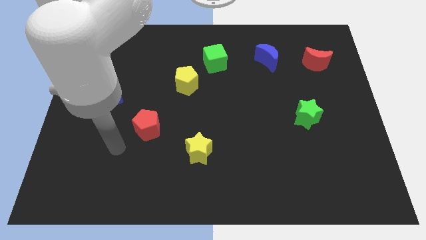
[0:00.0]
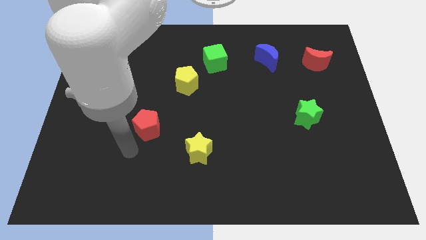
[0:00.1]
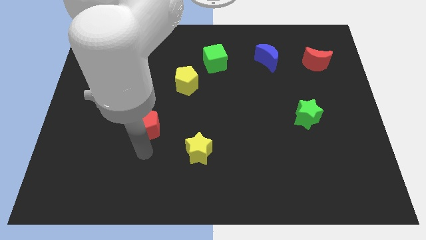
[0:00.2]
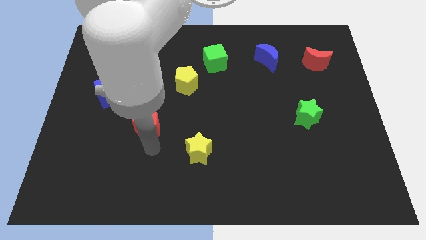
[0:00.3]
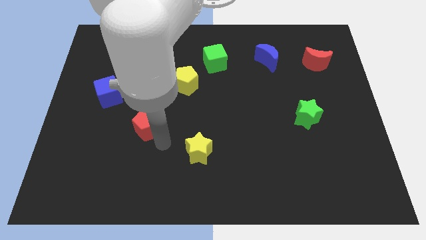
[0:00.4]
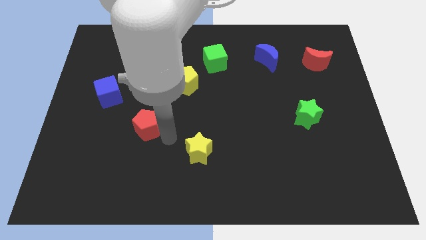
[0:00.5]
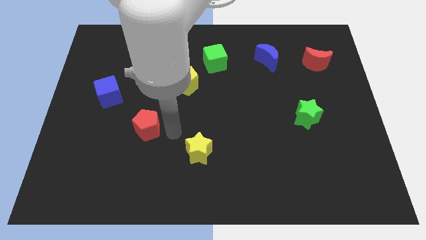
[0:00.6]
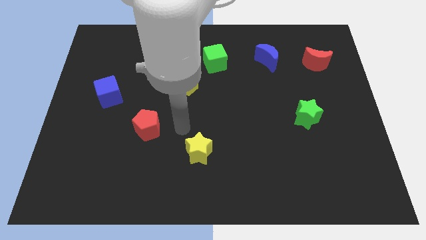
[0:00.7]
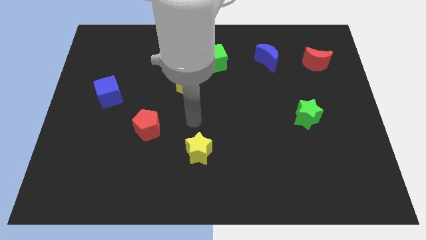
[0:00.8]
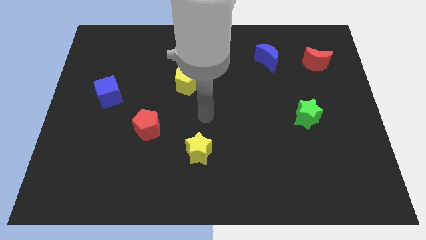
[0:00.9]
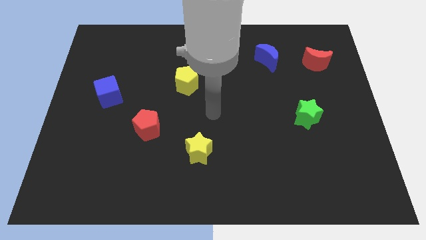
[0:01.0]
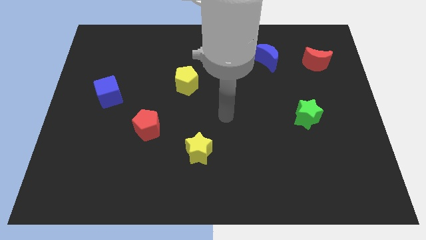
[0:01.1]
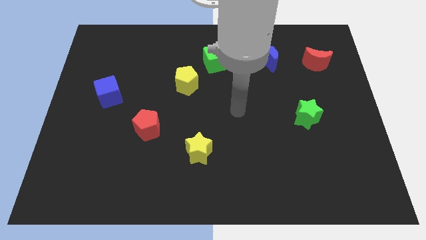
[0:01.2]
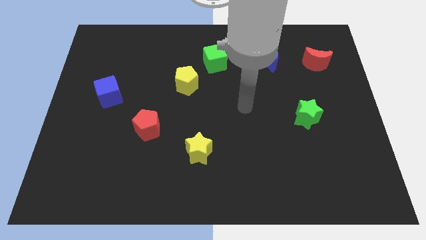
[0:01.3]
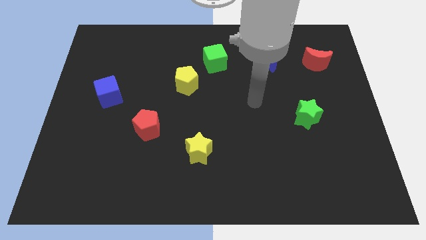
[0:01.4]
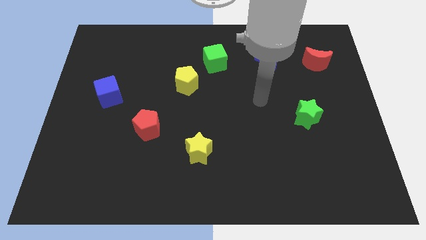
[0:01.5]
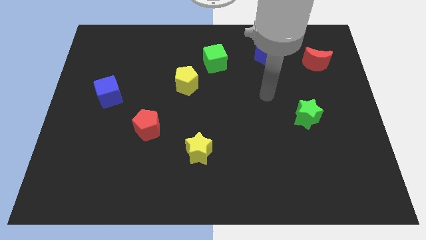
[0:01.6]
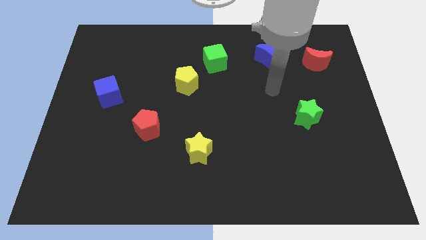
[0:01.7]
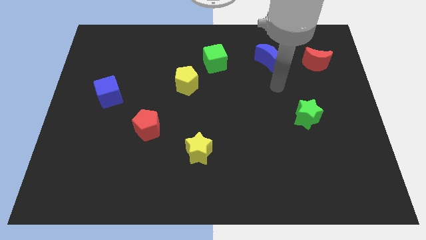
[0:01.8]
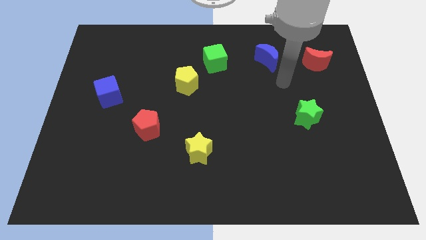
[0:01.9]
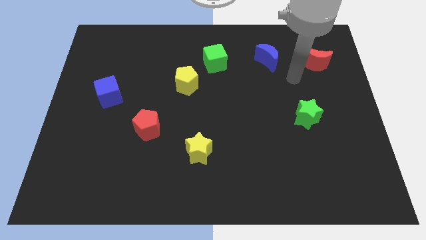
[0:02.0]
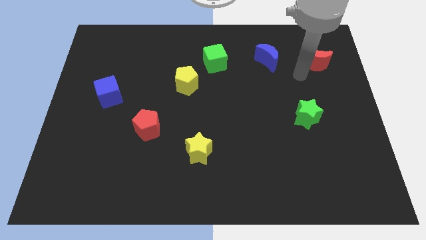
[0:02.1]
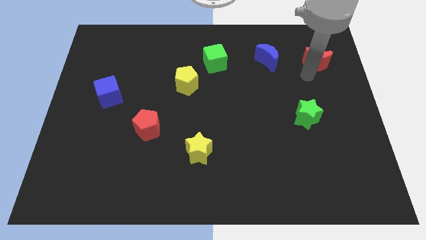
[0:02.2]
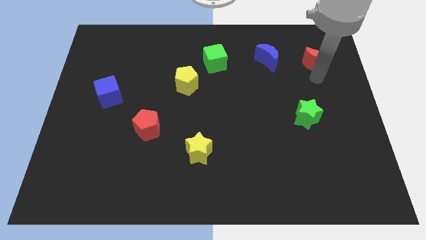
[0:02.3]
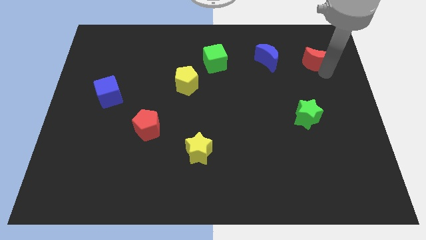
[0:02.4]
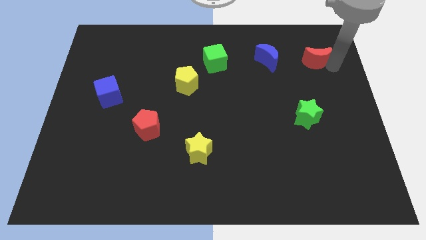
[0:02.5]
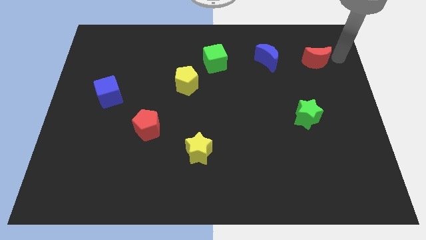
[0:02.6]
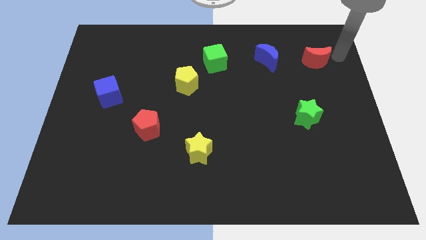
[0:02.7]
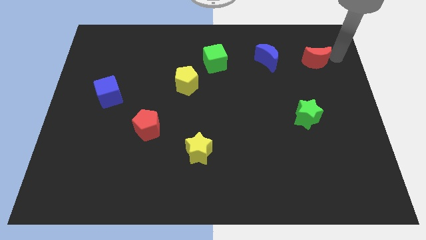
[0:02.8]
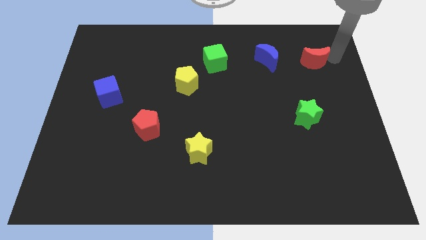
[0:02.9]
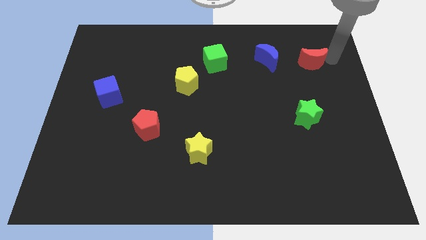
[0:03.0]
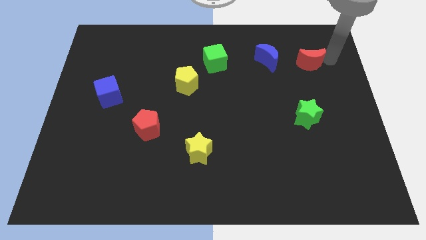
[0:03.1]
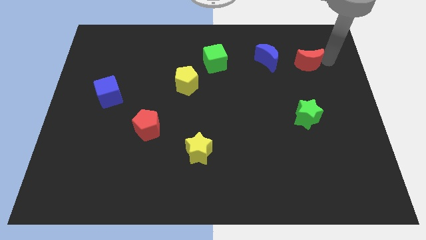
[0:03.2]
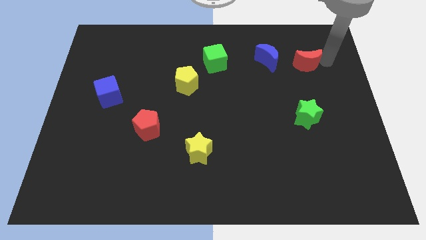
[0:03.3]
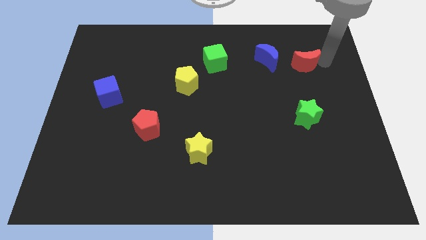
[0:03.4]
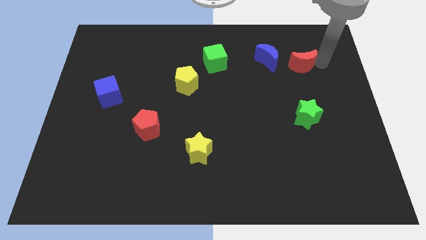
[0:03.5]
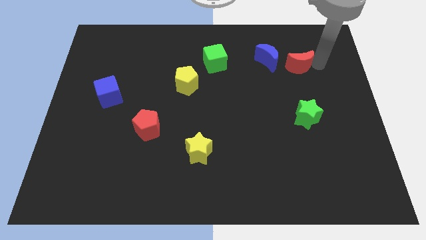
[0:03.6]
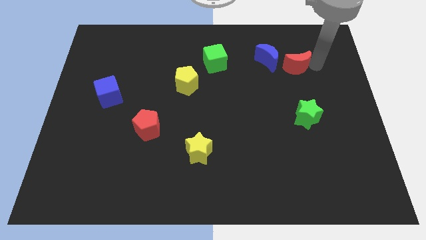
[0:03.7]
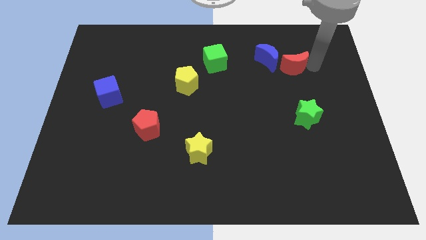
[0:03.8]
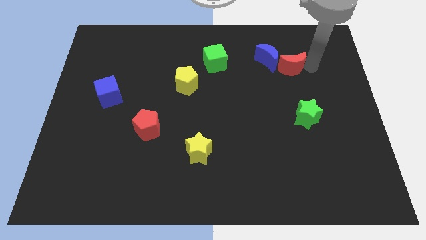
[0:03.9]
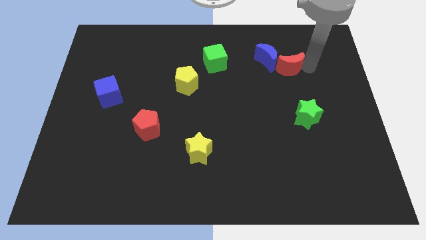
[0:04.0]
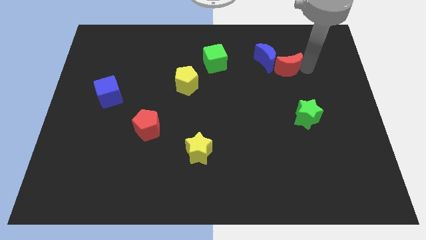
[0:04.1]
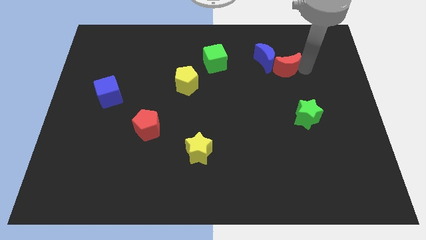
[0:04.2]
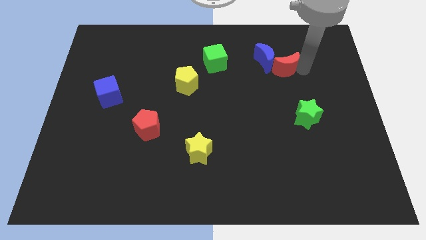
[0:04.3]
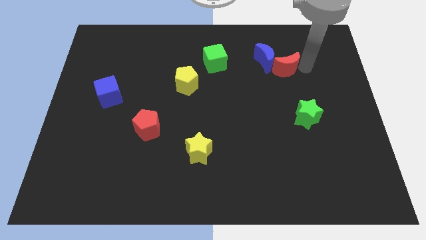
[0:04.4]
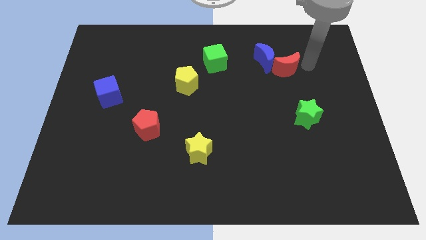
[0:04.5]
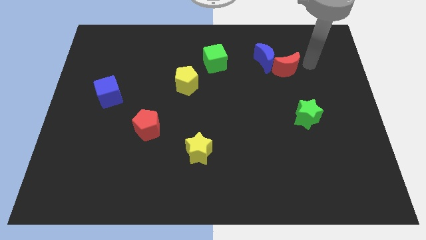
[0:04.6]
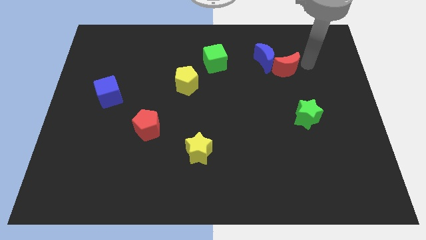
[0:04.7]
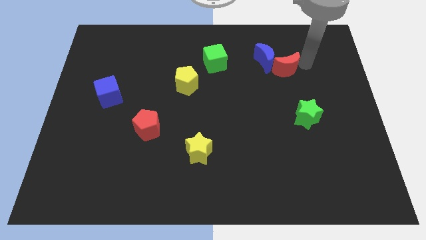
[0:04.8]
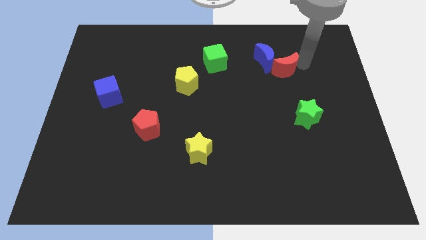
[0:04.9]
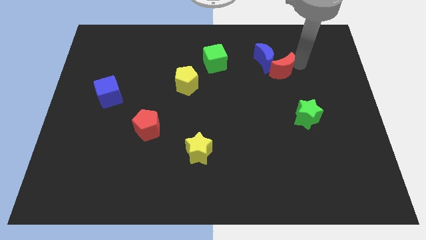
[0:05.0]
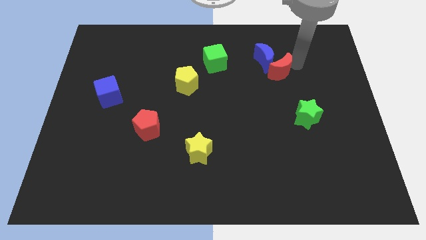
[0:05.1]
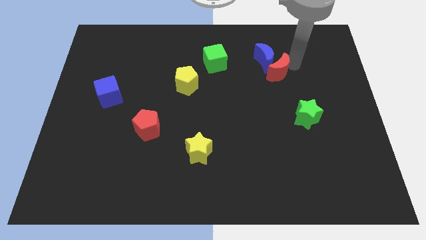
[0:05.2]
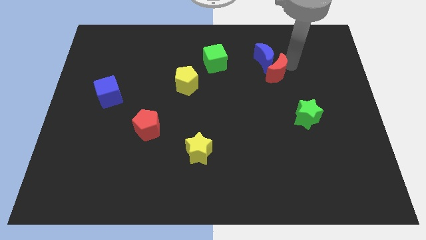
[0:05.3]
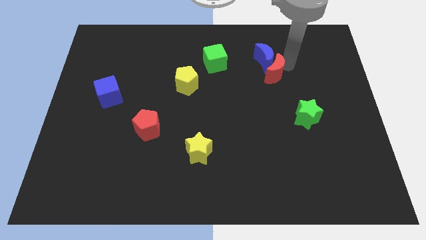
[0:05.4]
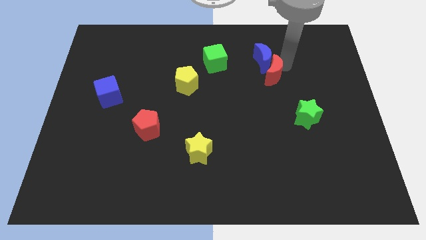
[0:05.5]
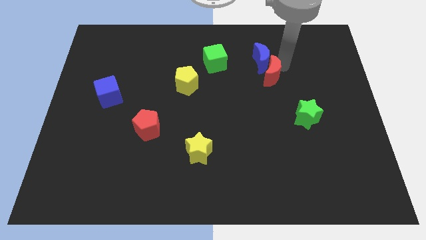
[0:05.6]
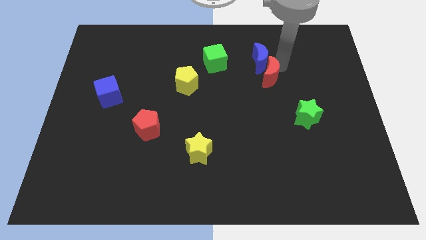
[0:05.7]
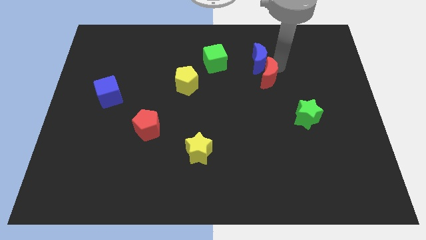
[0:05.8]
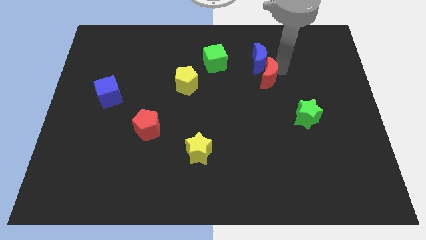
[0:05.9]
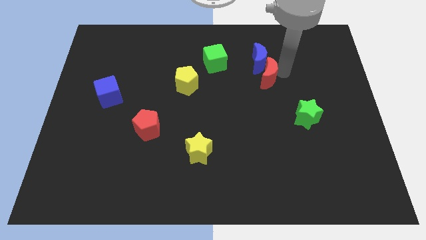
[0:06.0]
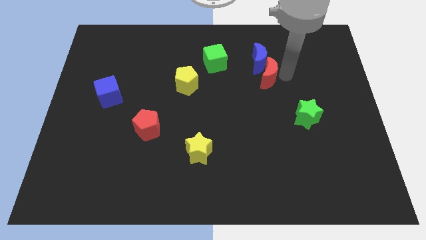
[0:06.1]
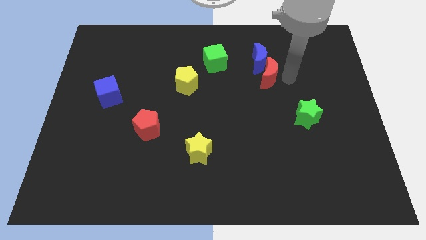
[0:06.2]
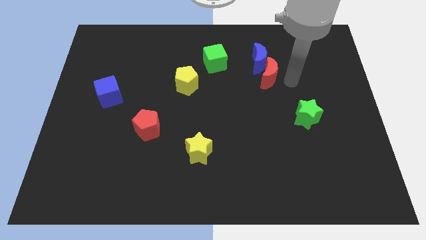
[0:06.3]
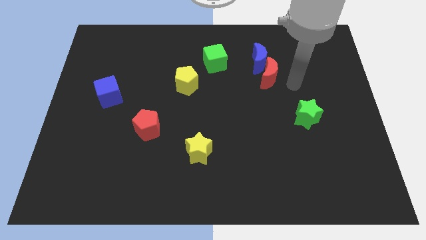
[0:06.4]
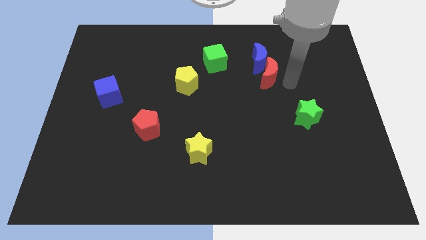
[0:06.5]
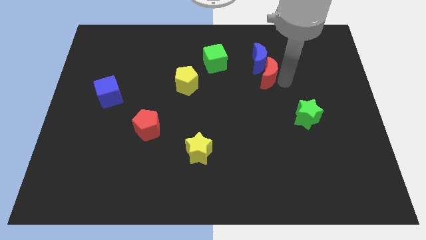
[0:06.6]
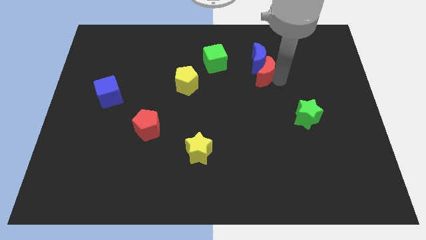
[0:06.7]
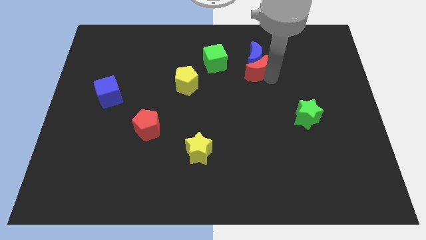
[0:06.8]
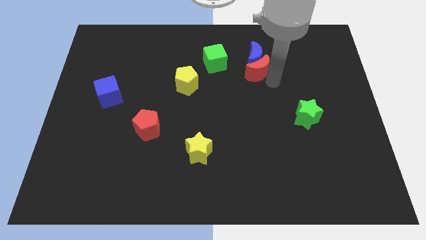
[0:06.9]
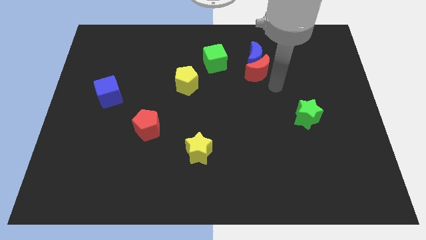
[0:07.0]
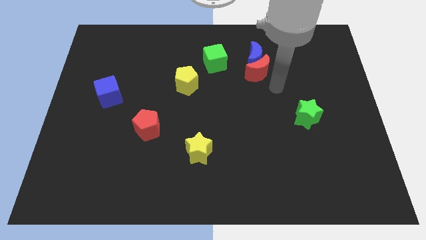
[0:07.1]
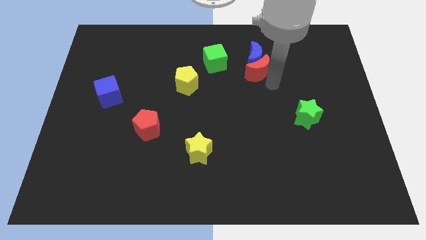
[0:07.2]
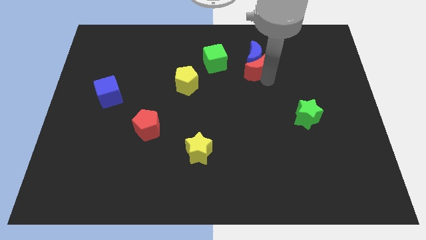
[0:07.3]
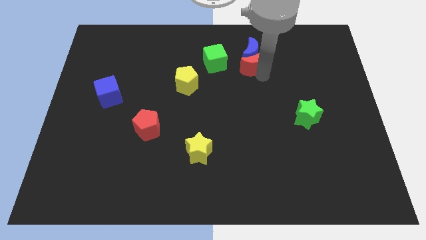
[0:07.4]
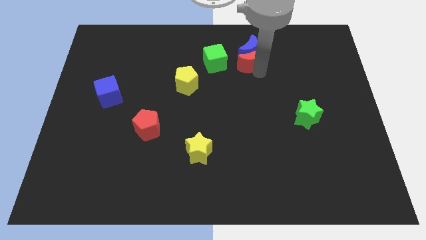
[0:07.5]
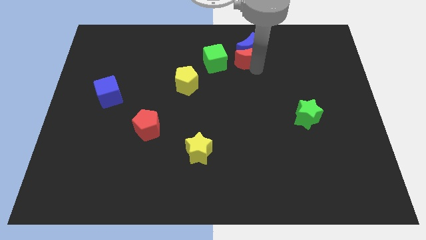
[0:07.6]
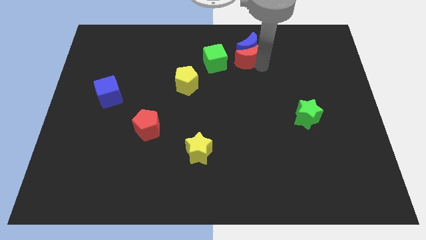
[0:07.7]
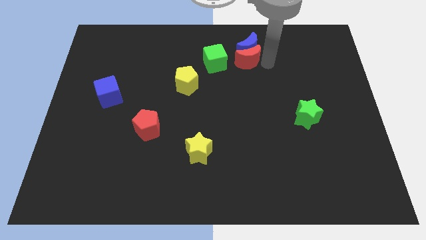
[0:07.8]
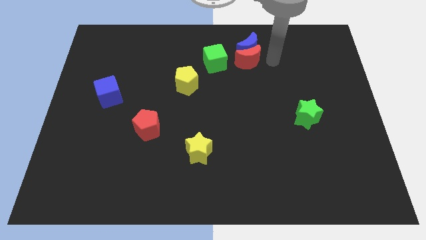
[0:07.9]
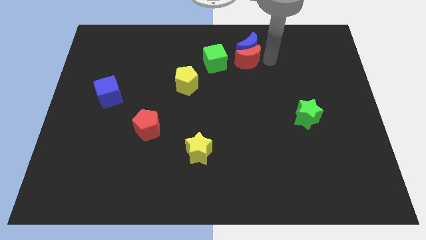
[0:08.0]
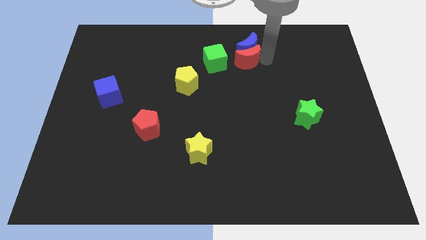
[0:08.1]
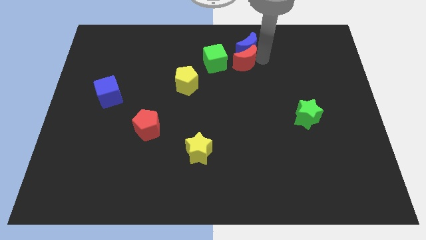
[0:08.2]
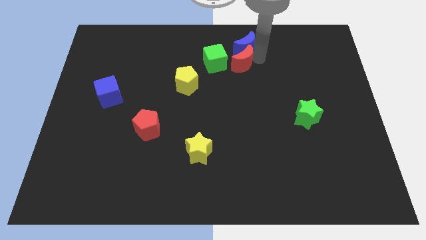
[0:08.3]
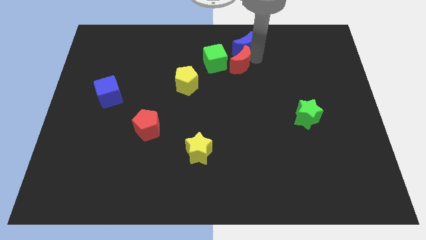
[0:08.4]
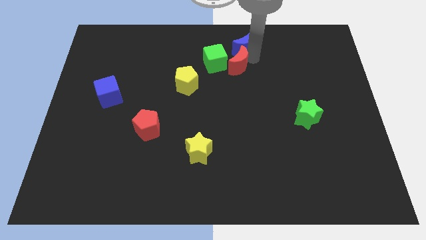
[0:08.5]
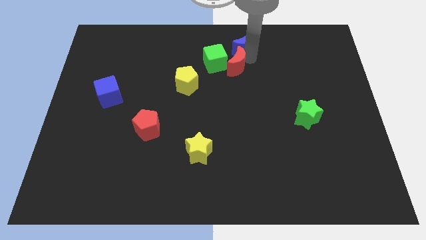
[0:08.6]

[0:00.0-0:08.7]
move the red moon next to the green cube
